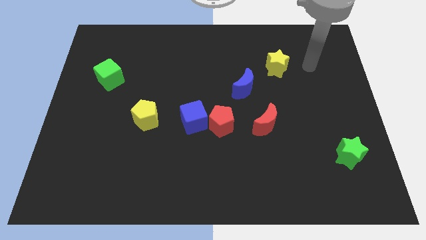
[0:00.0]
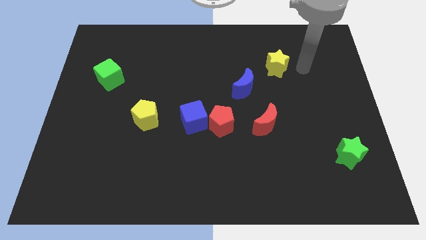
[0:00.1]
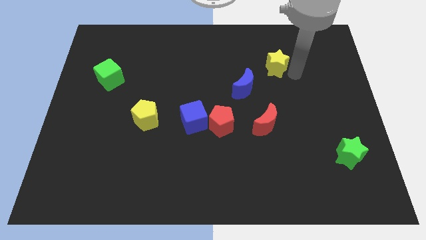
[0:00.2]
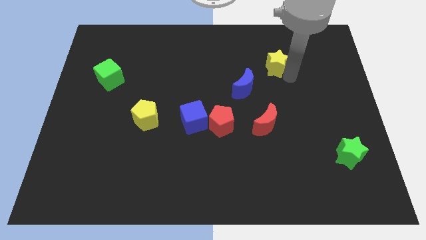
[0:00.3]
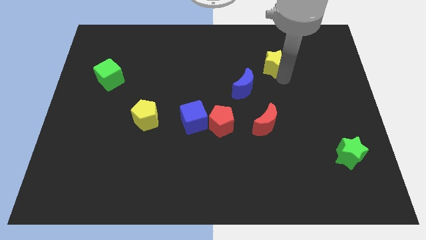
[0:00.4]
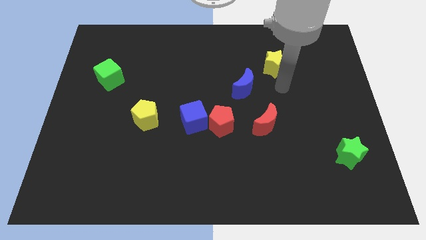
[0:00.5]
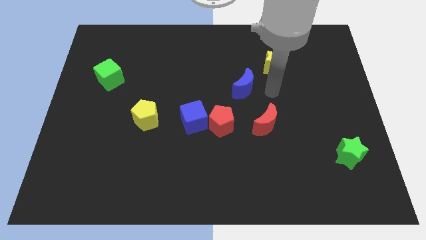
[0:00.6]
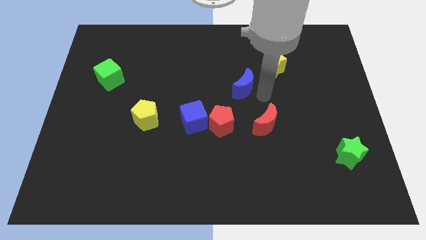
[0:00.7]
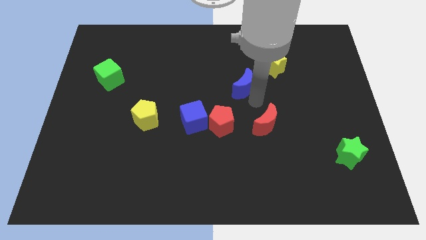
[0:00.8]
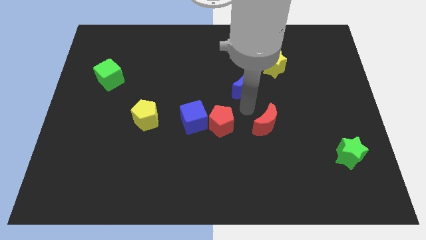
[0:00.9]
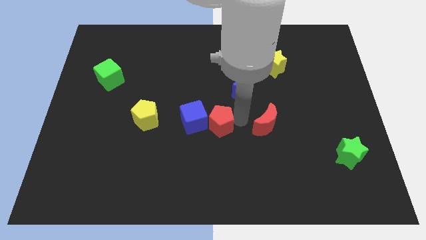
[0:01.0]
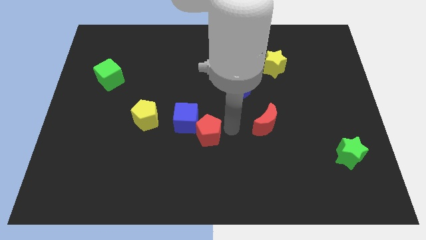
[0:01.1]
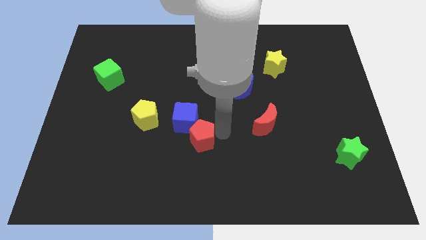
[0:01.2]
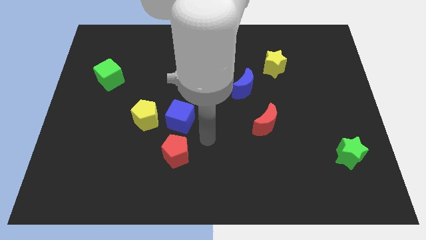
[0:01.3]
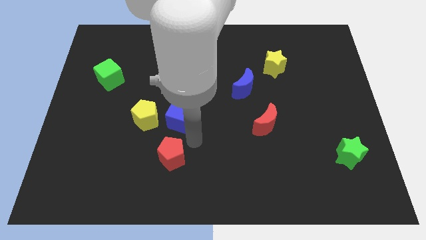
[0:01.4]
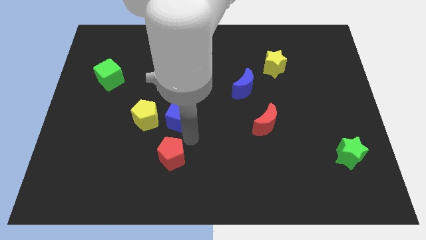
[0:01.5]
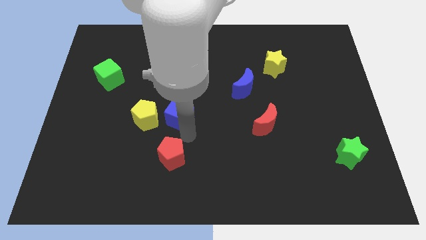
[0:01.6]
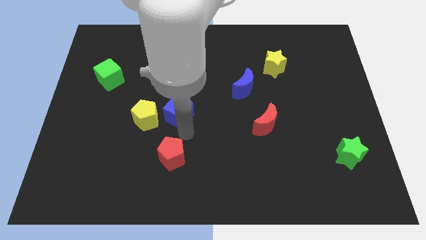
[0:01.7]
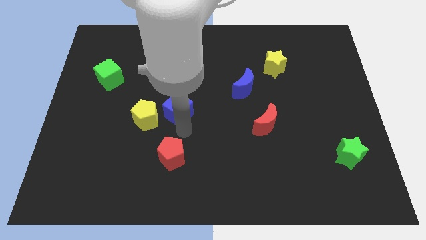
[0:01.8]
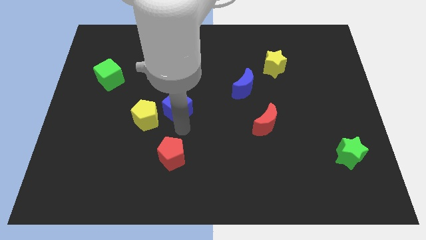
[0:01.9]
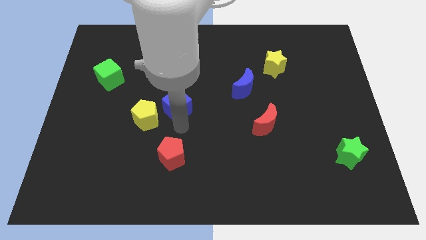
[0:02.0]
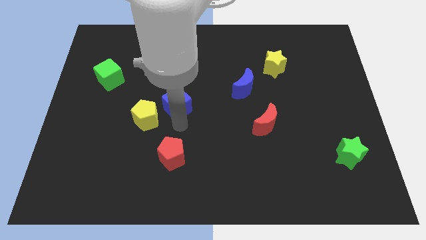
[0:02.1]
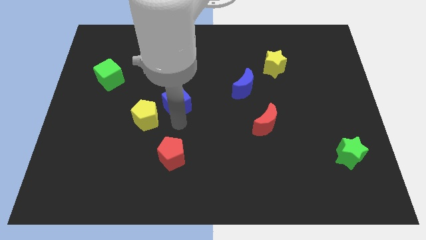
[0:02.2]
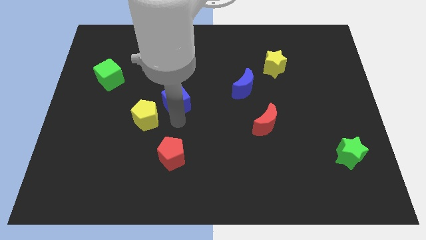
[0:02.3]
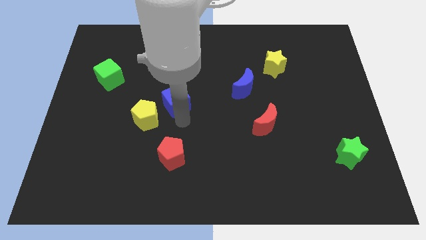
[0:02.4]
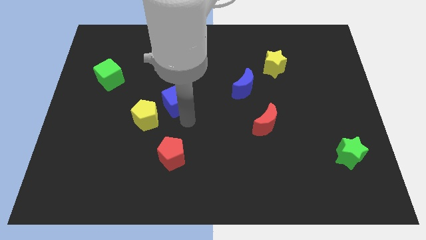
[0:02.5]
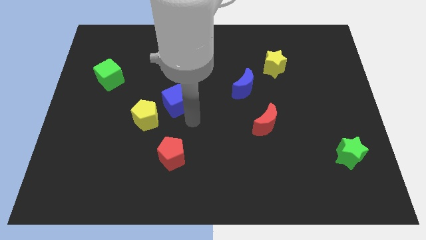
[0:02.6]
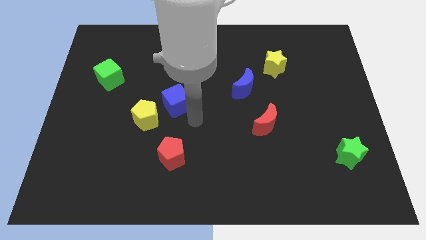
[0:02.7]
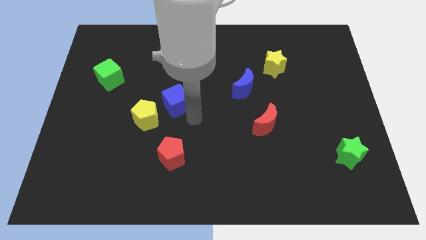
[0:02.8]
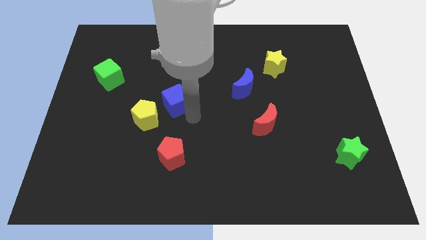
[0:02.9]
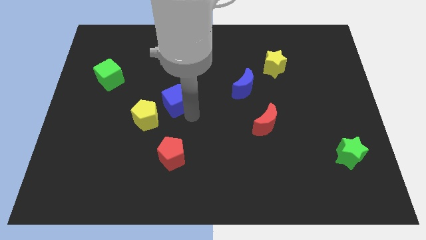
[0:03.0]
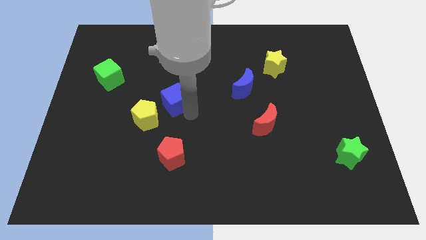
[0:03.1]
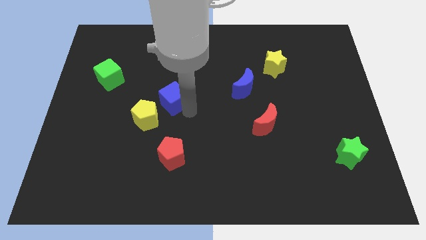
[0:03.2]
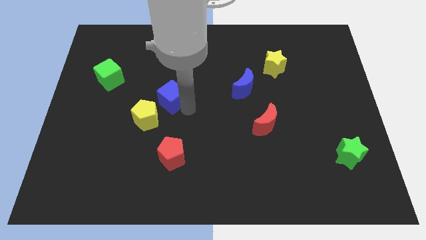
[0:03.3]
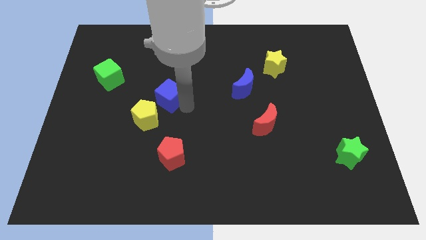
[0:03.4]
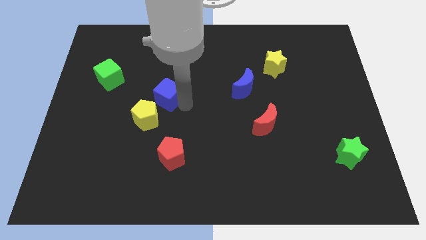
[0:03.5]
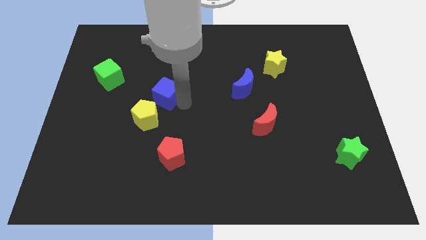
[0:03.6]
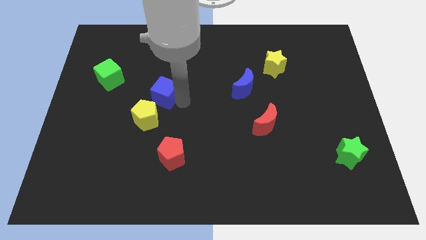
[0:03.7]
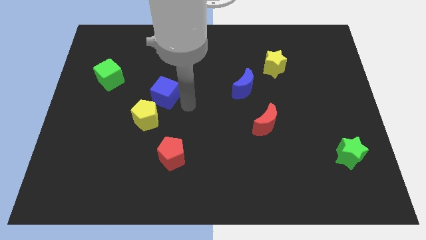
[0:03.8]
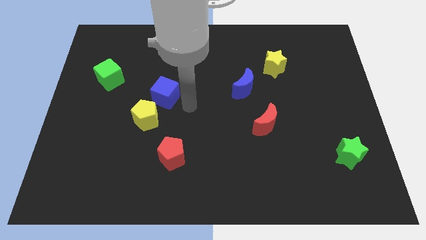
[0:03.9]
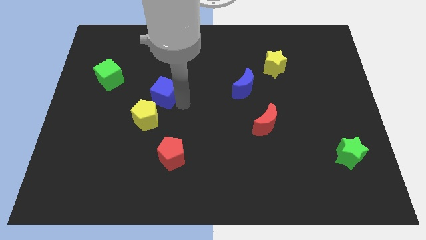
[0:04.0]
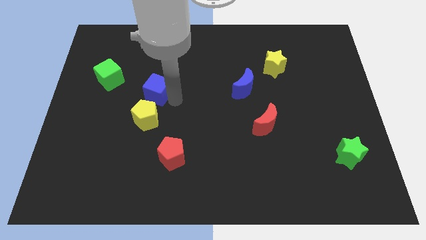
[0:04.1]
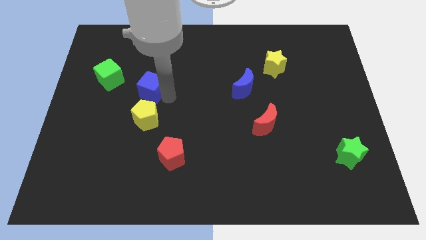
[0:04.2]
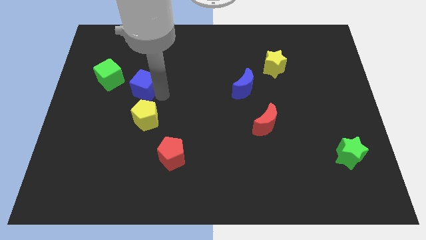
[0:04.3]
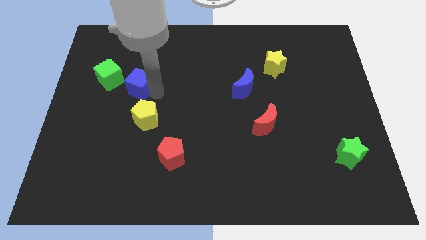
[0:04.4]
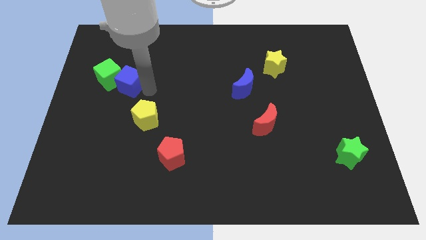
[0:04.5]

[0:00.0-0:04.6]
move the blue cube close to the green cube

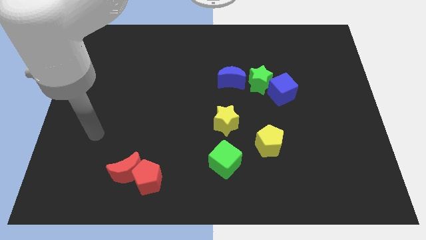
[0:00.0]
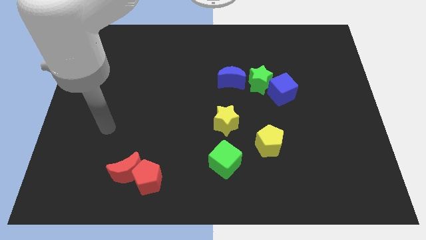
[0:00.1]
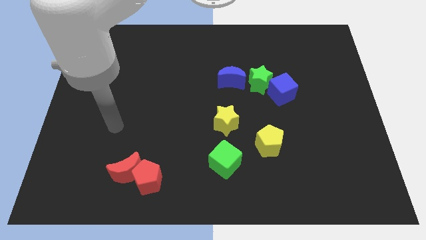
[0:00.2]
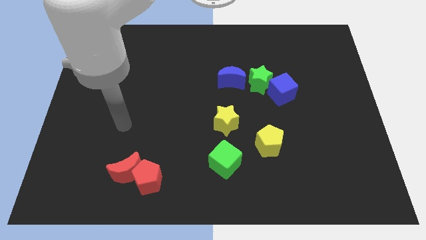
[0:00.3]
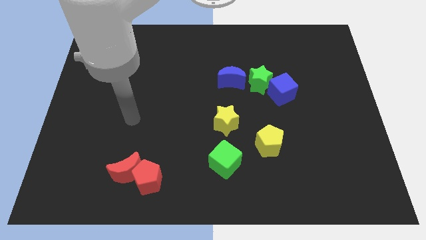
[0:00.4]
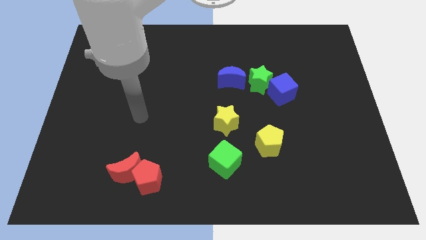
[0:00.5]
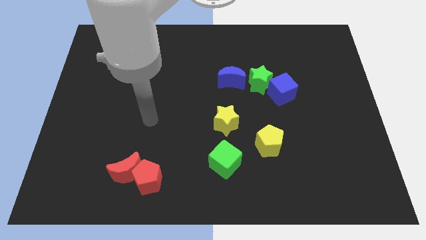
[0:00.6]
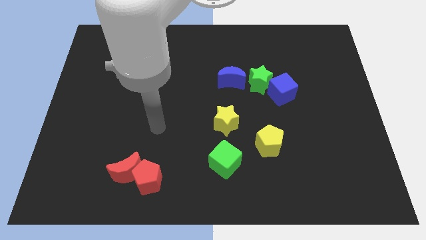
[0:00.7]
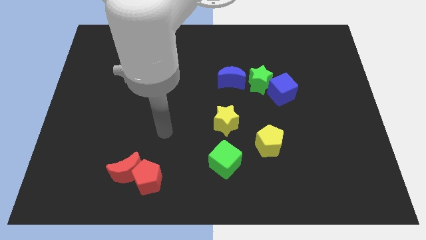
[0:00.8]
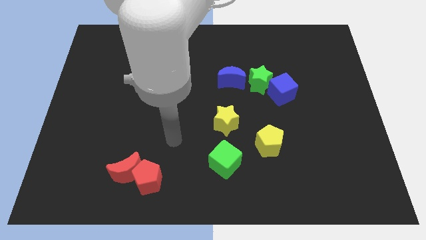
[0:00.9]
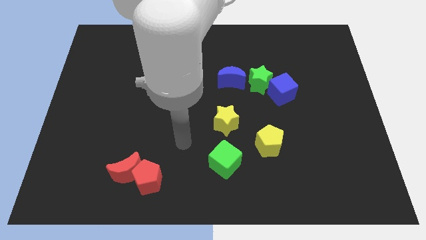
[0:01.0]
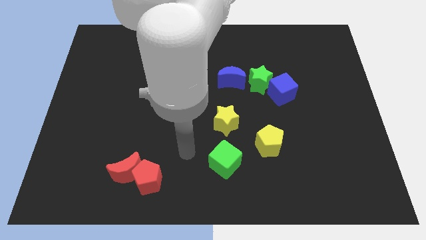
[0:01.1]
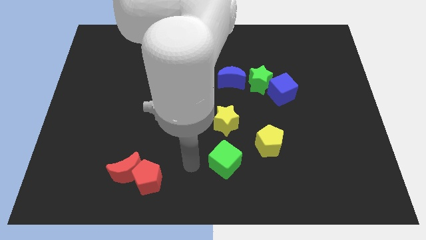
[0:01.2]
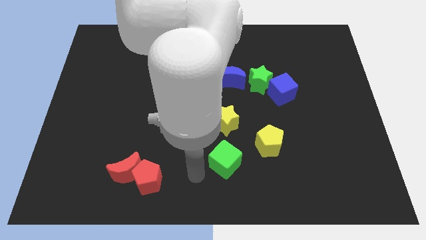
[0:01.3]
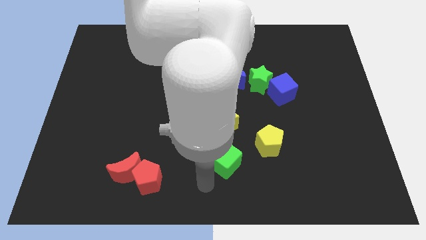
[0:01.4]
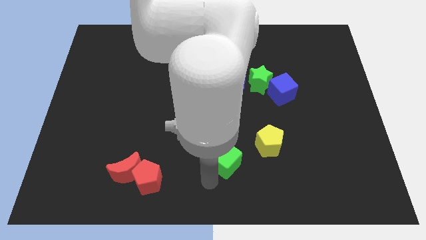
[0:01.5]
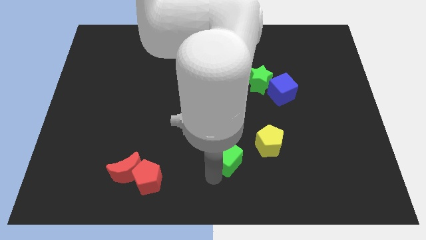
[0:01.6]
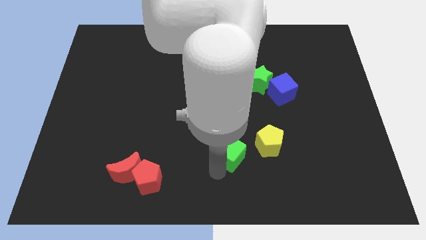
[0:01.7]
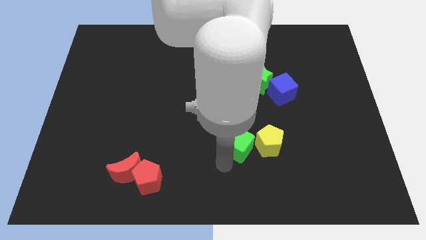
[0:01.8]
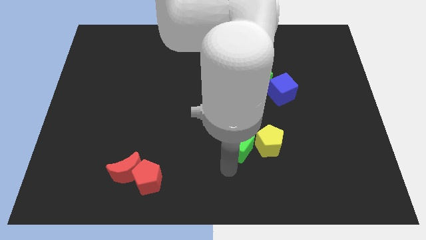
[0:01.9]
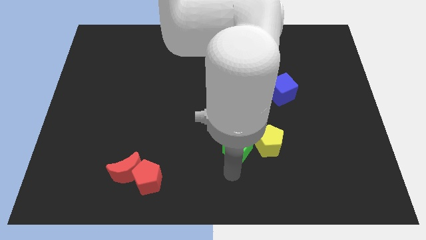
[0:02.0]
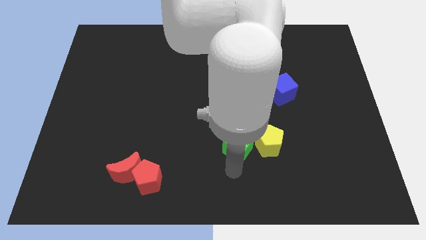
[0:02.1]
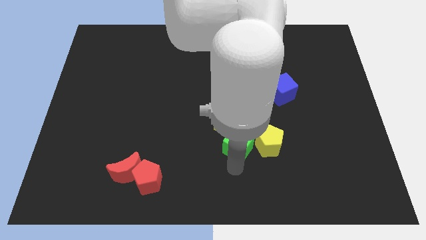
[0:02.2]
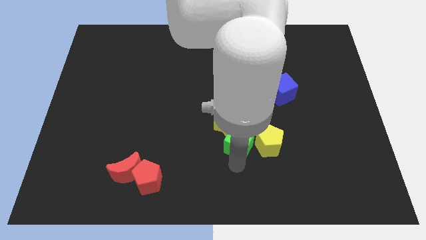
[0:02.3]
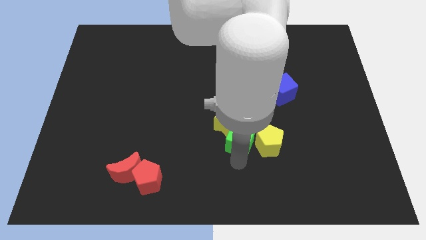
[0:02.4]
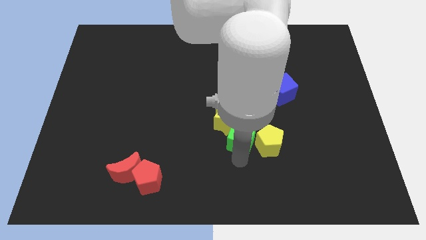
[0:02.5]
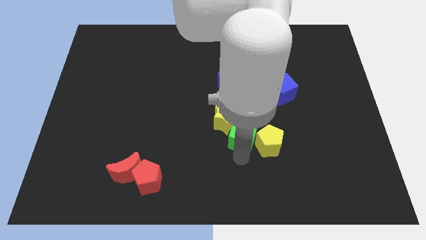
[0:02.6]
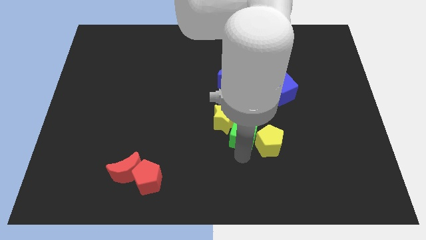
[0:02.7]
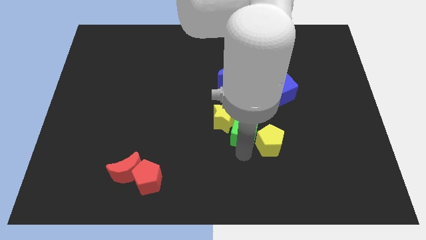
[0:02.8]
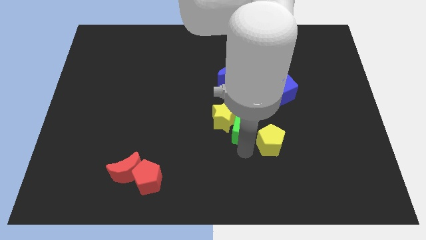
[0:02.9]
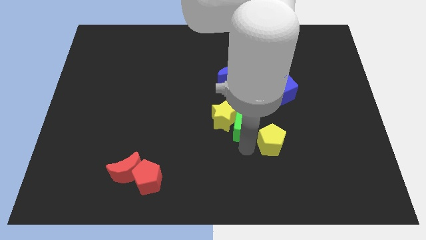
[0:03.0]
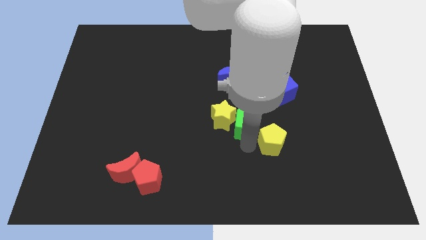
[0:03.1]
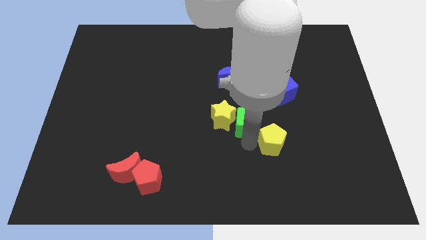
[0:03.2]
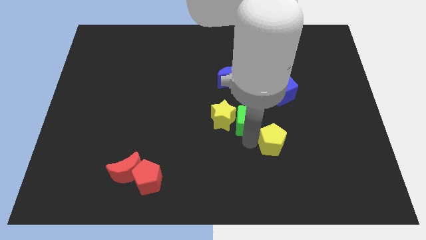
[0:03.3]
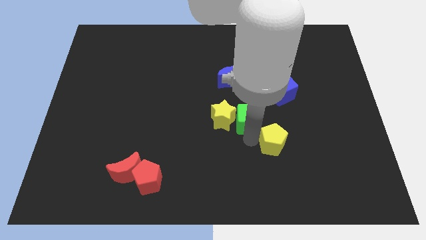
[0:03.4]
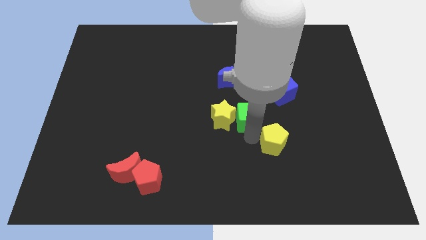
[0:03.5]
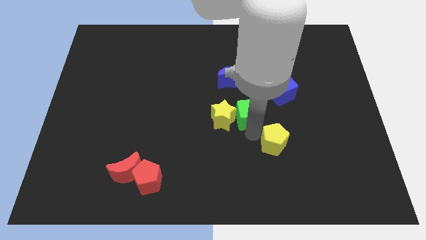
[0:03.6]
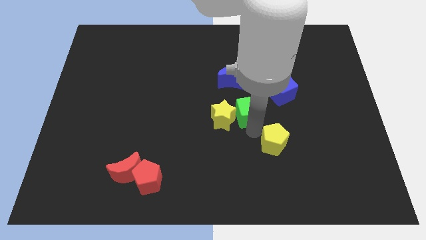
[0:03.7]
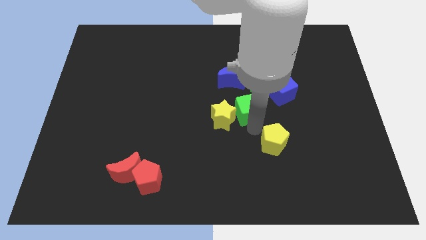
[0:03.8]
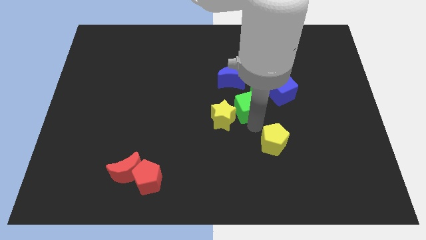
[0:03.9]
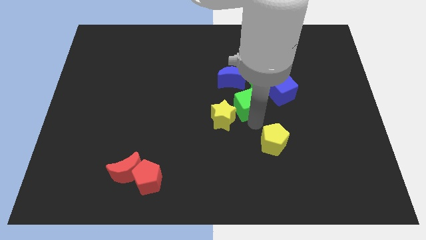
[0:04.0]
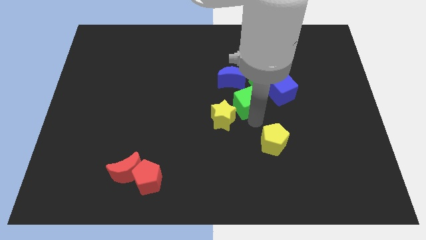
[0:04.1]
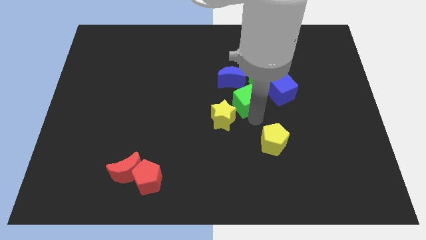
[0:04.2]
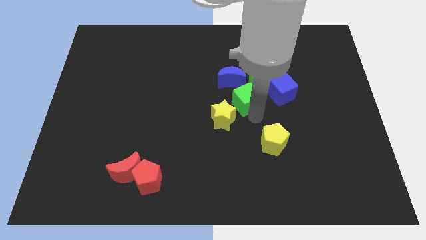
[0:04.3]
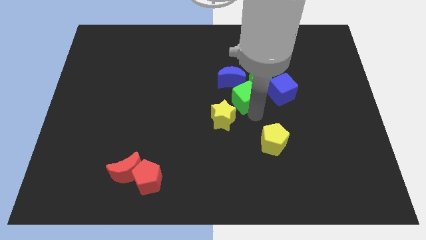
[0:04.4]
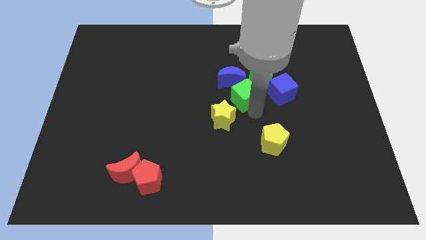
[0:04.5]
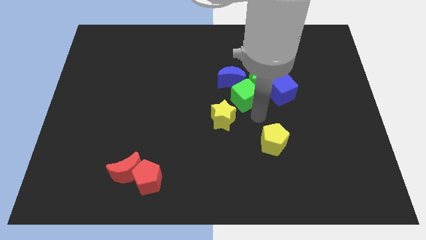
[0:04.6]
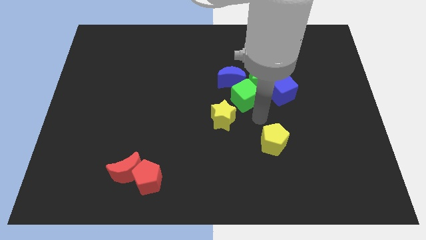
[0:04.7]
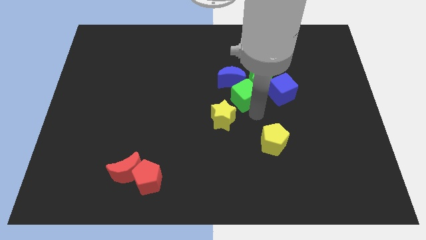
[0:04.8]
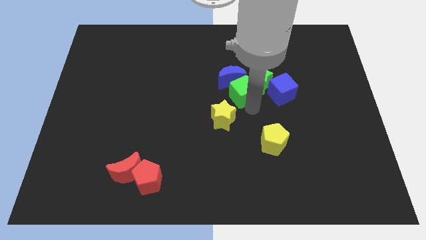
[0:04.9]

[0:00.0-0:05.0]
put the green cube towards the blue moon
